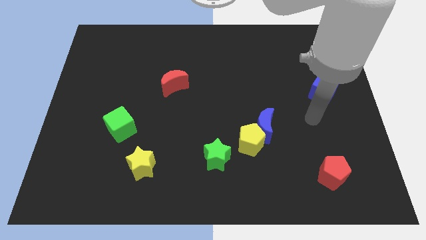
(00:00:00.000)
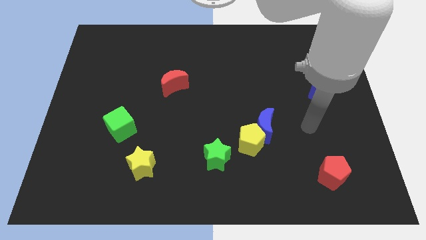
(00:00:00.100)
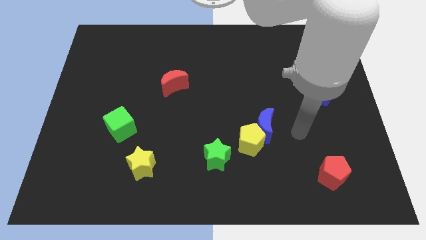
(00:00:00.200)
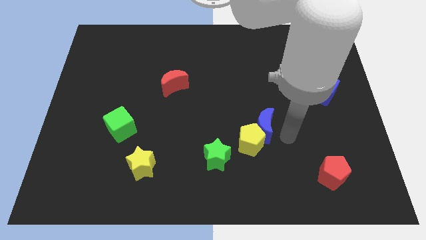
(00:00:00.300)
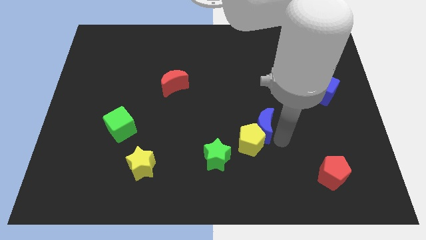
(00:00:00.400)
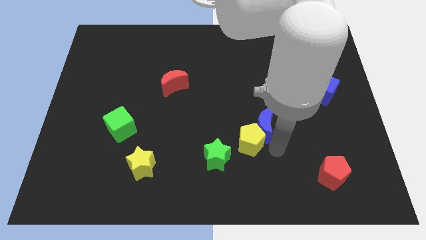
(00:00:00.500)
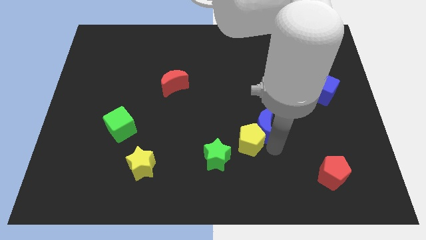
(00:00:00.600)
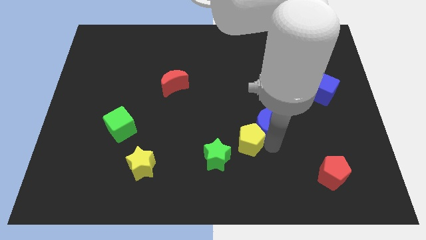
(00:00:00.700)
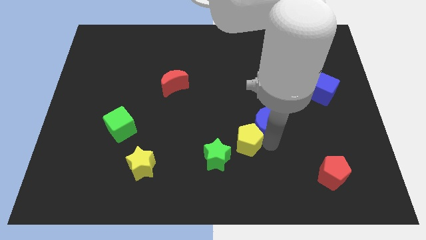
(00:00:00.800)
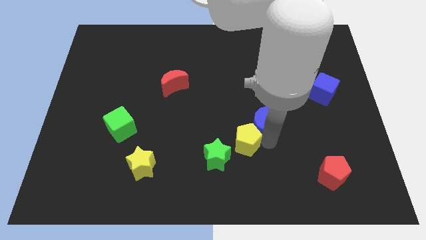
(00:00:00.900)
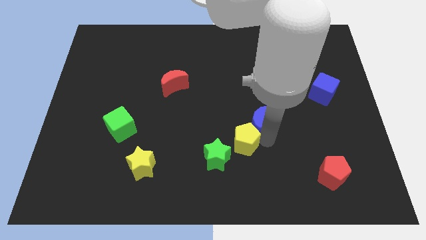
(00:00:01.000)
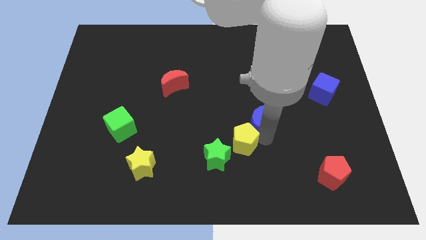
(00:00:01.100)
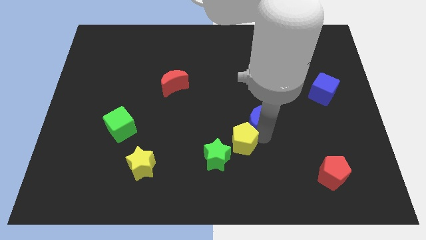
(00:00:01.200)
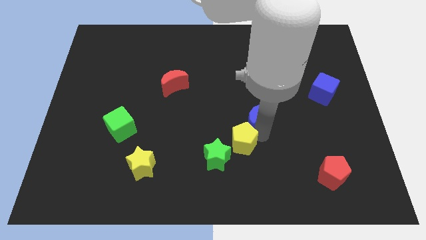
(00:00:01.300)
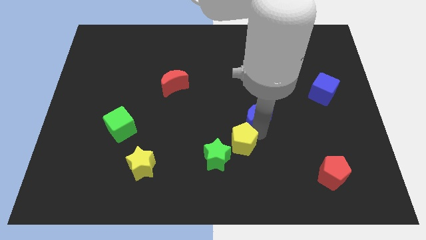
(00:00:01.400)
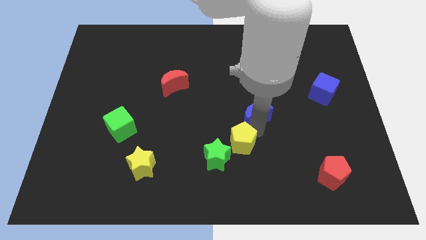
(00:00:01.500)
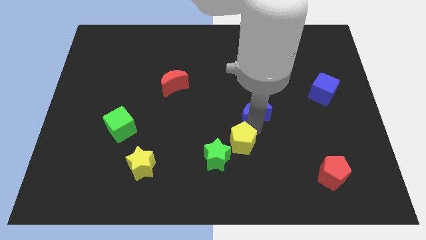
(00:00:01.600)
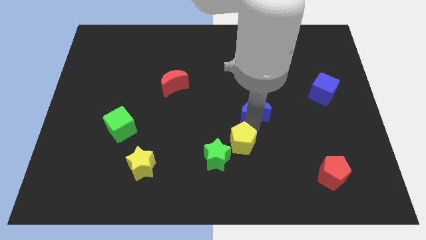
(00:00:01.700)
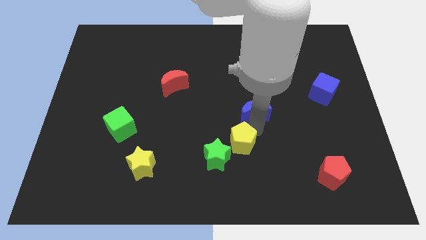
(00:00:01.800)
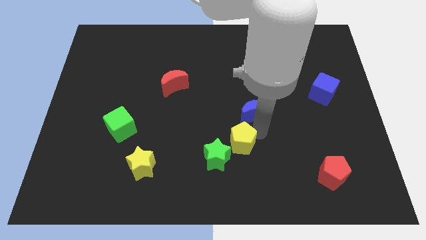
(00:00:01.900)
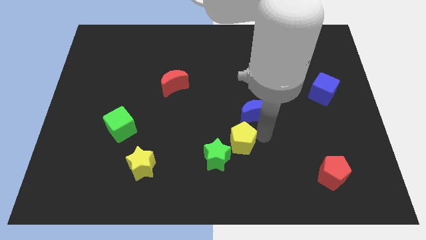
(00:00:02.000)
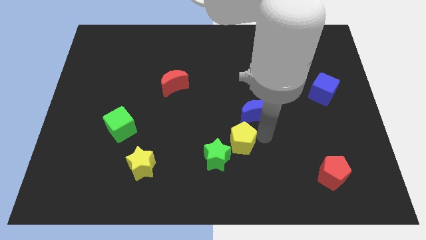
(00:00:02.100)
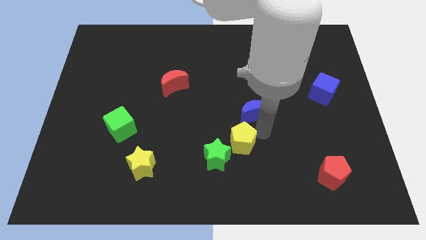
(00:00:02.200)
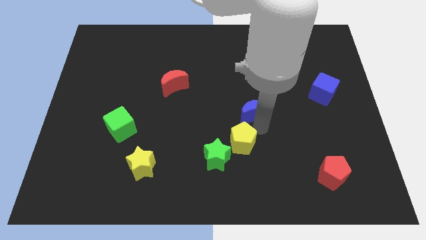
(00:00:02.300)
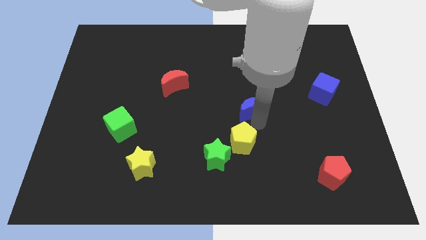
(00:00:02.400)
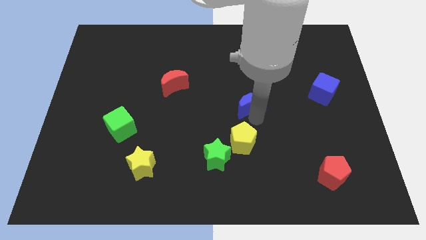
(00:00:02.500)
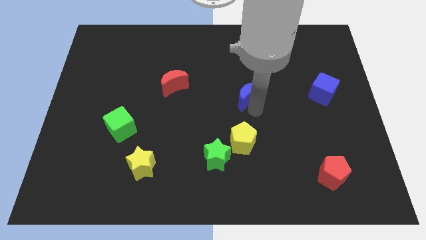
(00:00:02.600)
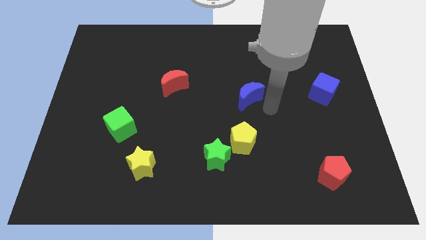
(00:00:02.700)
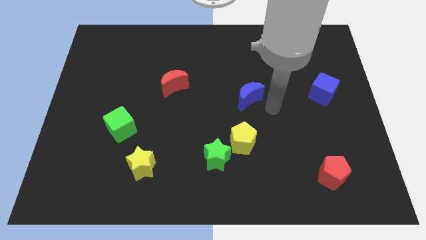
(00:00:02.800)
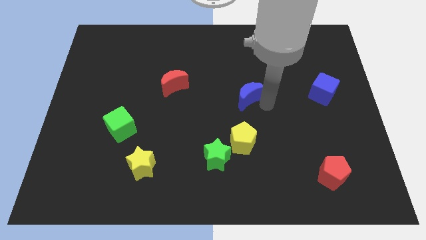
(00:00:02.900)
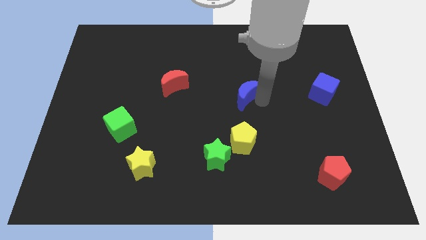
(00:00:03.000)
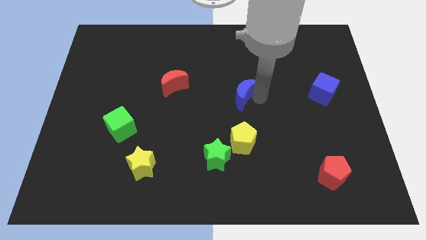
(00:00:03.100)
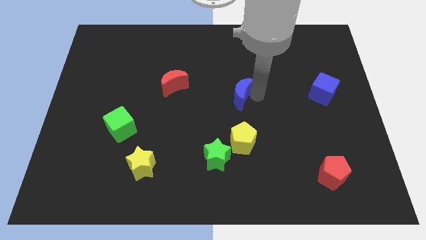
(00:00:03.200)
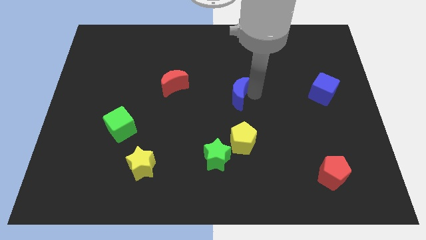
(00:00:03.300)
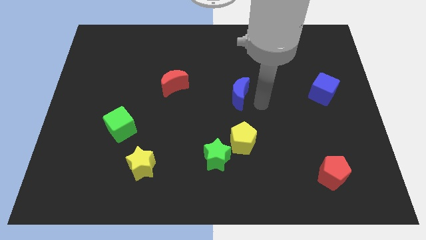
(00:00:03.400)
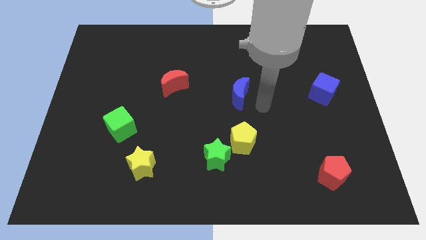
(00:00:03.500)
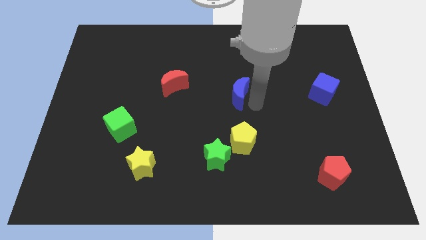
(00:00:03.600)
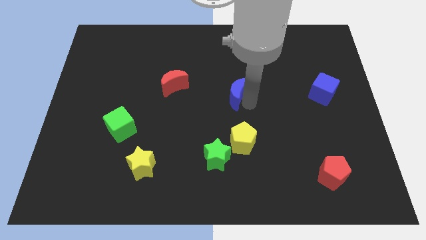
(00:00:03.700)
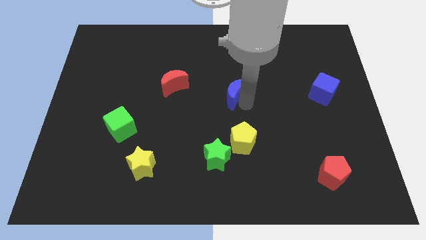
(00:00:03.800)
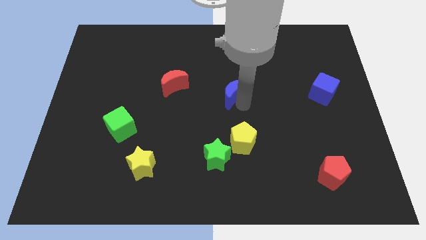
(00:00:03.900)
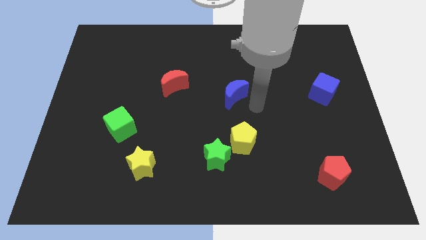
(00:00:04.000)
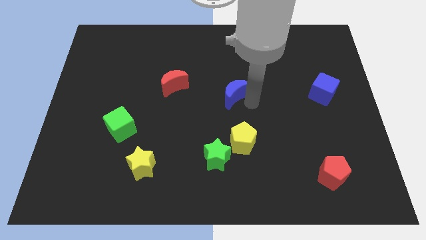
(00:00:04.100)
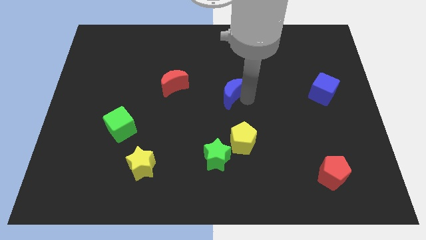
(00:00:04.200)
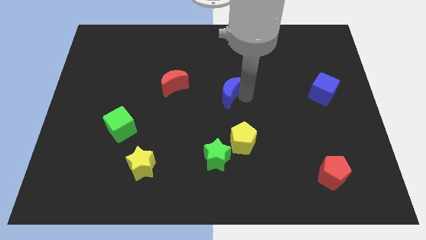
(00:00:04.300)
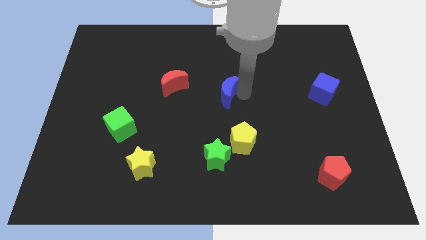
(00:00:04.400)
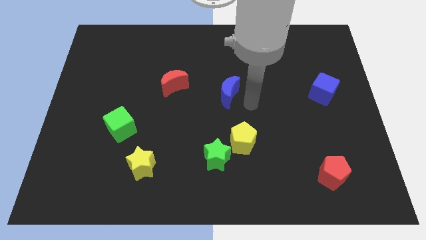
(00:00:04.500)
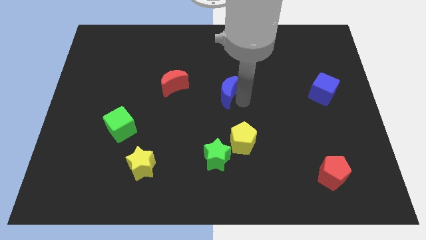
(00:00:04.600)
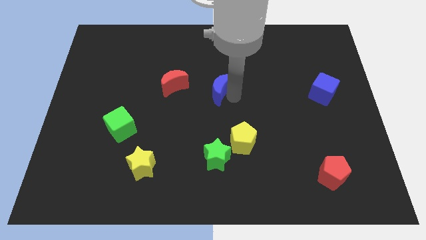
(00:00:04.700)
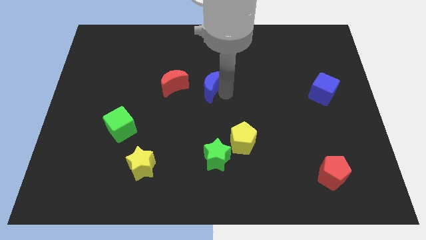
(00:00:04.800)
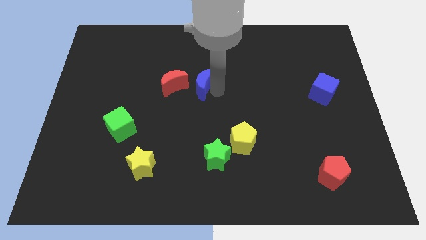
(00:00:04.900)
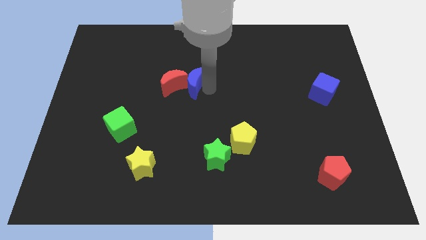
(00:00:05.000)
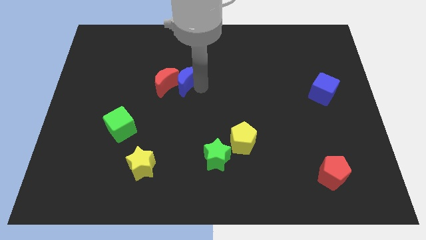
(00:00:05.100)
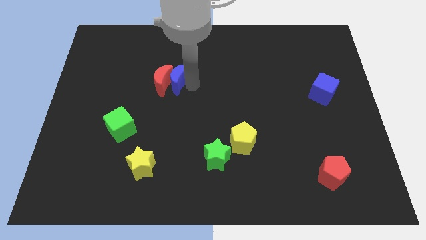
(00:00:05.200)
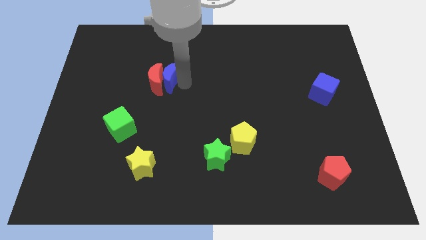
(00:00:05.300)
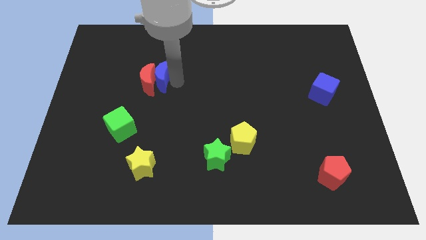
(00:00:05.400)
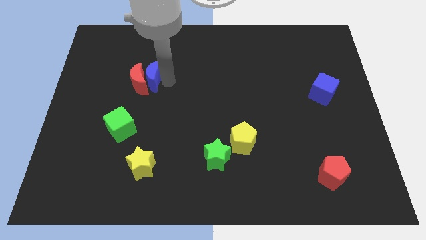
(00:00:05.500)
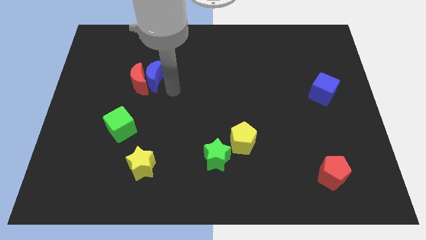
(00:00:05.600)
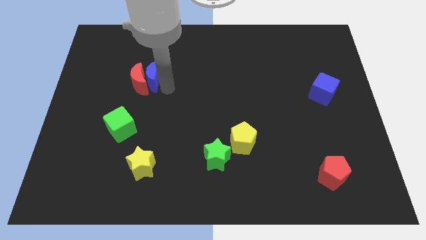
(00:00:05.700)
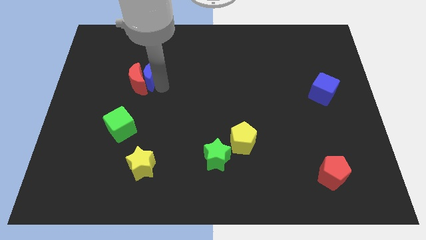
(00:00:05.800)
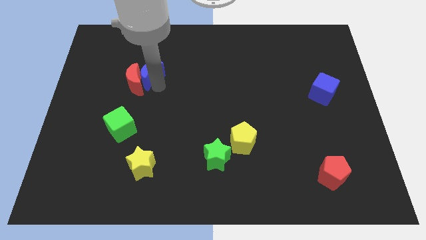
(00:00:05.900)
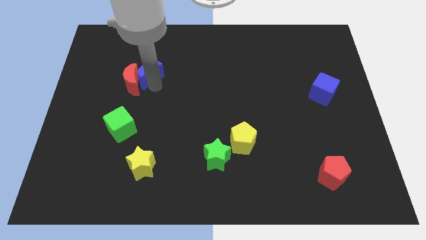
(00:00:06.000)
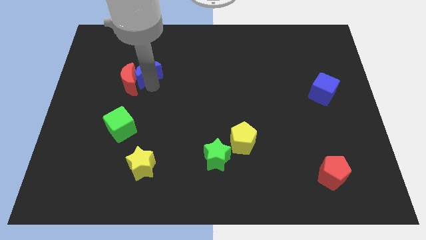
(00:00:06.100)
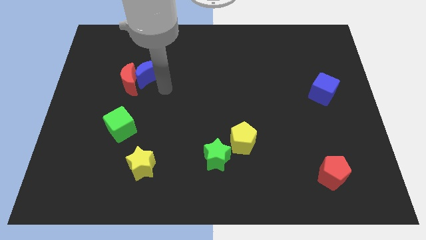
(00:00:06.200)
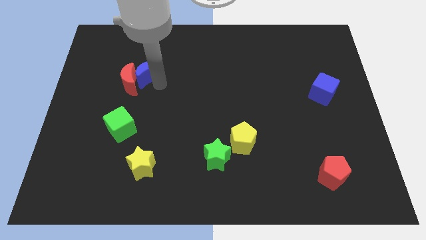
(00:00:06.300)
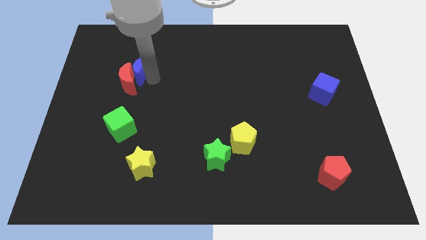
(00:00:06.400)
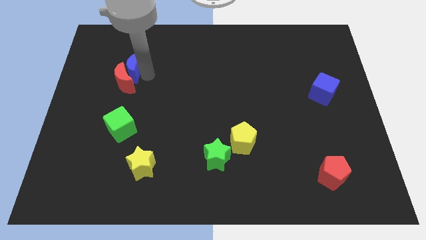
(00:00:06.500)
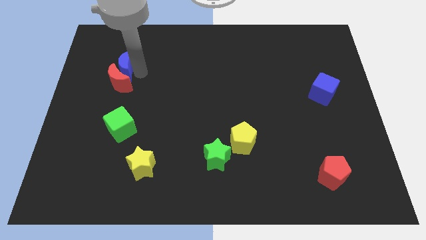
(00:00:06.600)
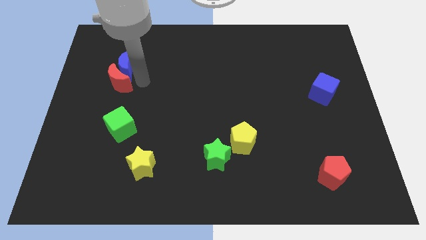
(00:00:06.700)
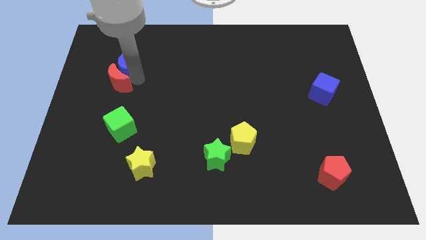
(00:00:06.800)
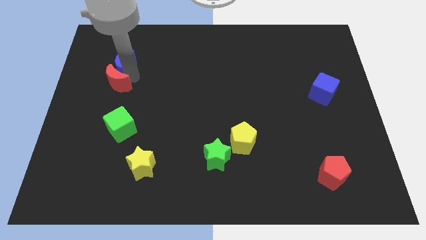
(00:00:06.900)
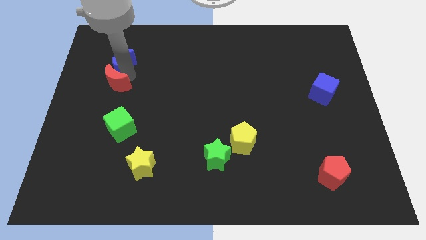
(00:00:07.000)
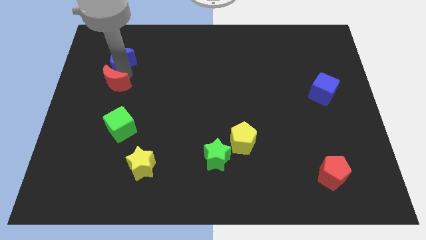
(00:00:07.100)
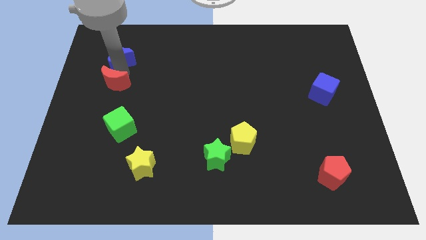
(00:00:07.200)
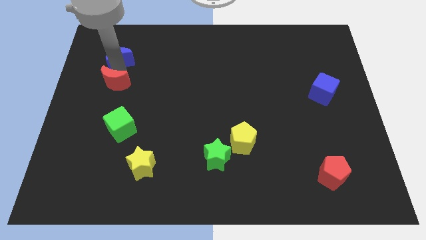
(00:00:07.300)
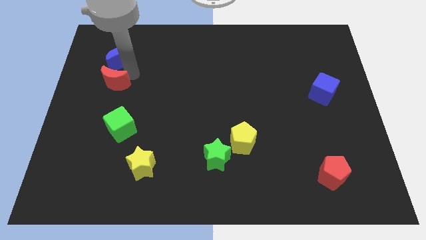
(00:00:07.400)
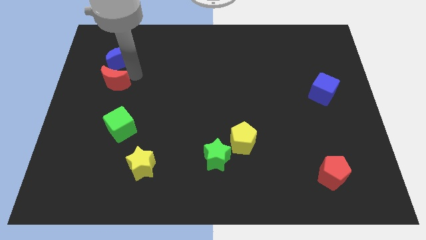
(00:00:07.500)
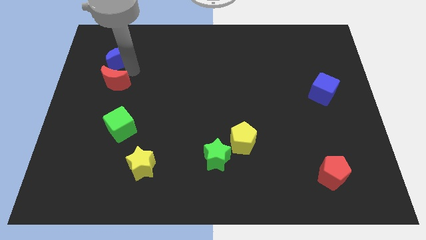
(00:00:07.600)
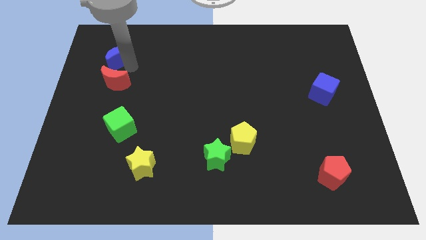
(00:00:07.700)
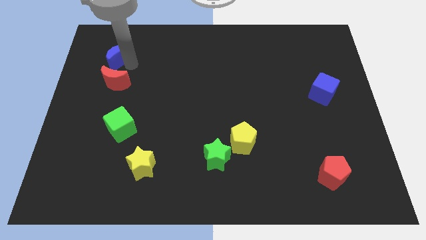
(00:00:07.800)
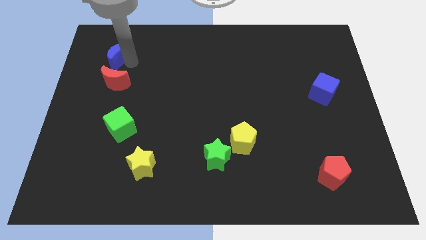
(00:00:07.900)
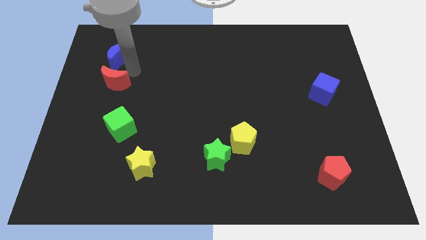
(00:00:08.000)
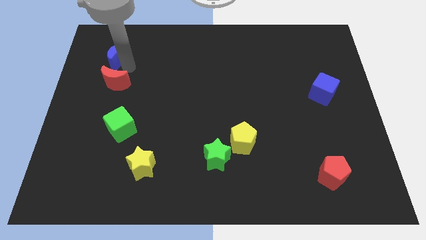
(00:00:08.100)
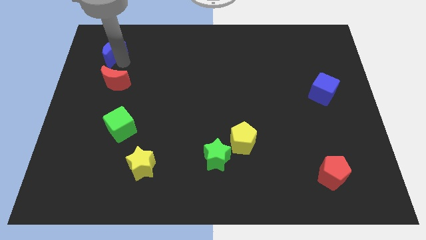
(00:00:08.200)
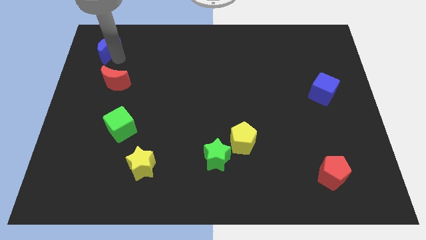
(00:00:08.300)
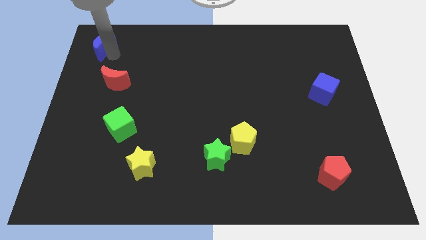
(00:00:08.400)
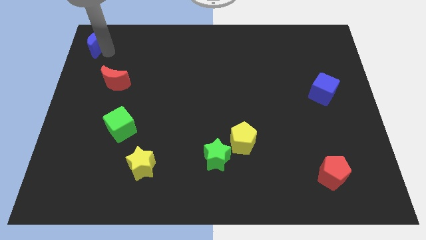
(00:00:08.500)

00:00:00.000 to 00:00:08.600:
slide the blue moon to the top left of the board
